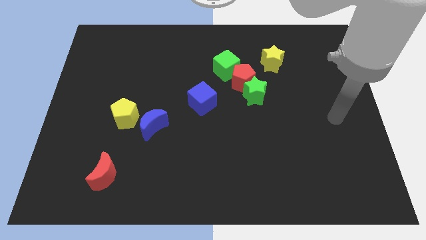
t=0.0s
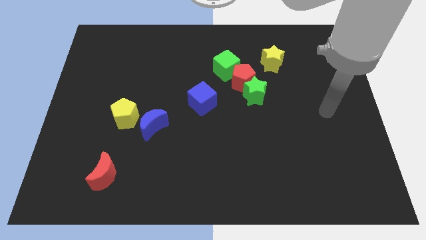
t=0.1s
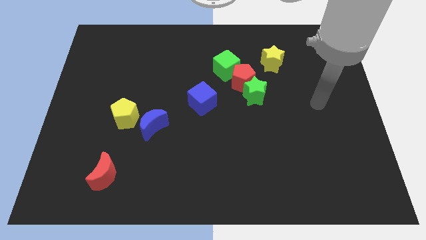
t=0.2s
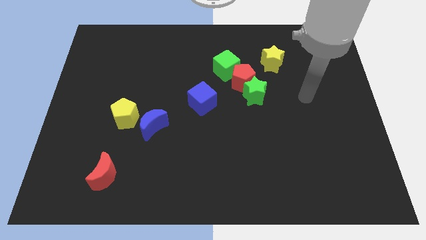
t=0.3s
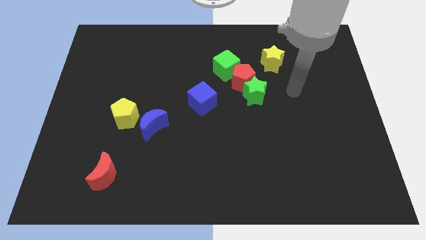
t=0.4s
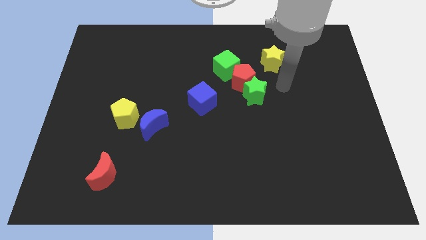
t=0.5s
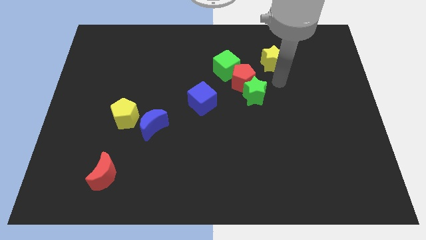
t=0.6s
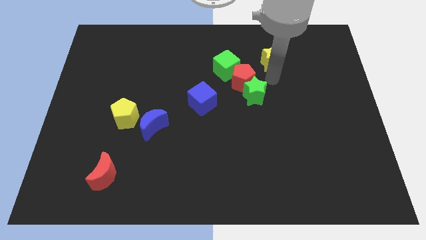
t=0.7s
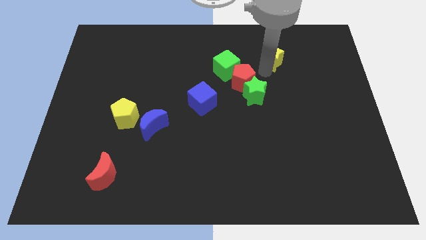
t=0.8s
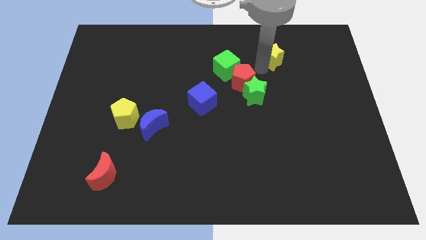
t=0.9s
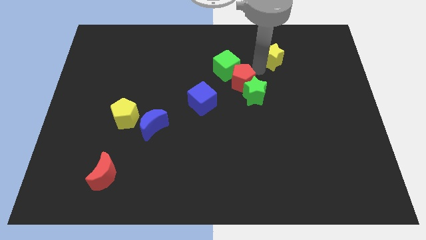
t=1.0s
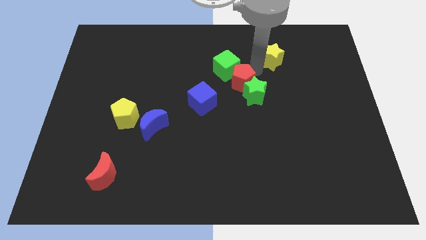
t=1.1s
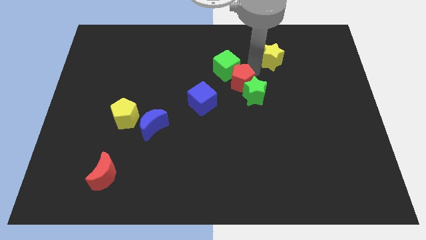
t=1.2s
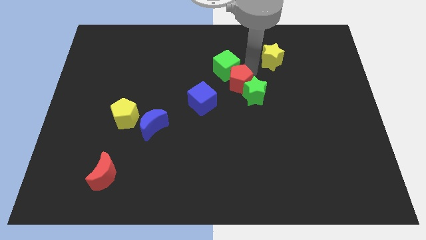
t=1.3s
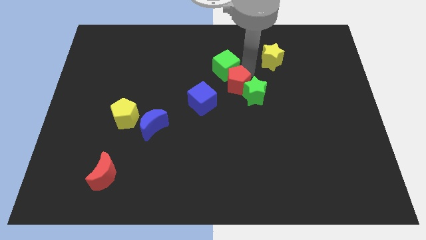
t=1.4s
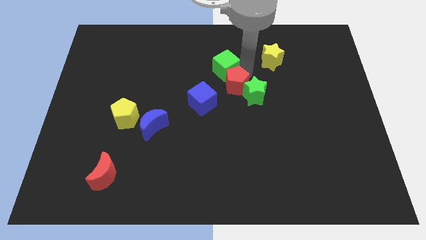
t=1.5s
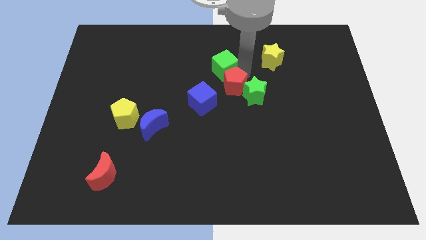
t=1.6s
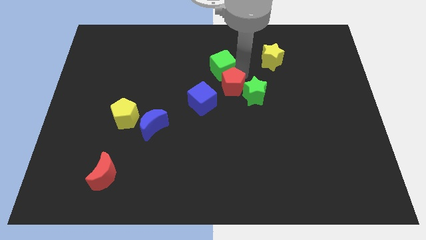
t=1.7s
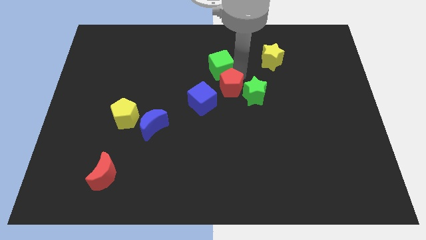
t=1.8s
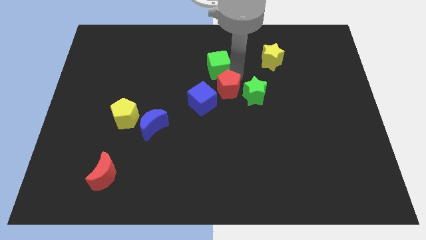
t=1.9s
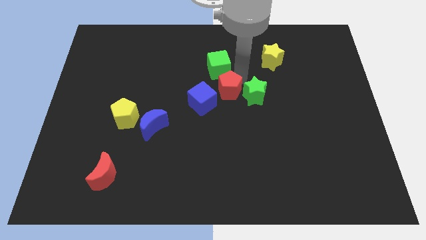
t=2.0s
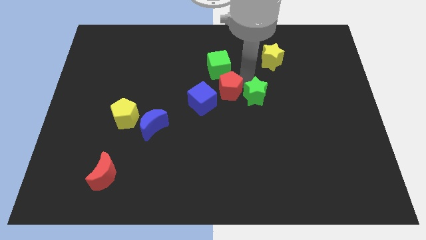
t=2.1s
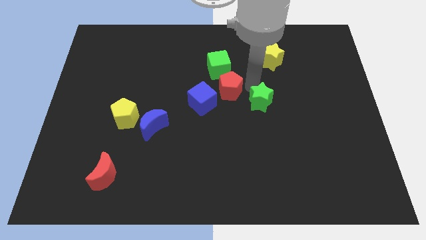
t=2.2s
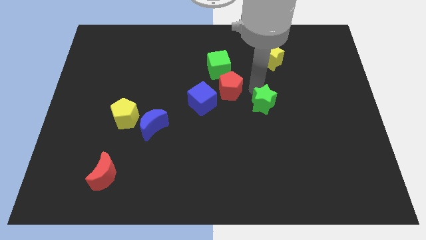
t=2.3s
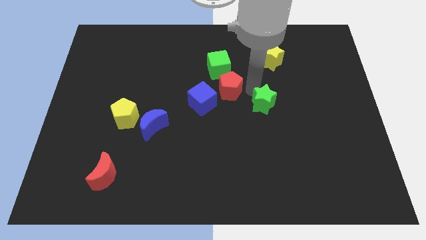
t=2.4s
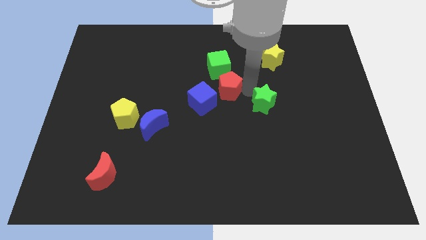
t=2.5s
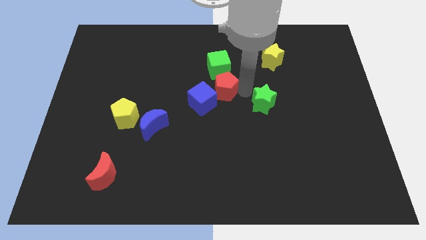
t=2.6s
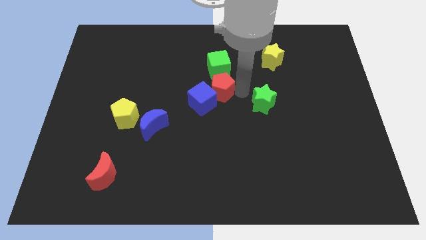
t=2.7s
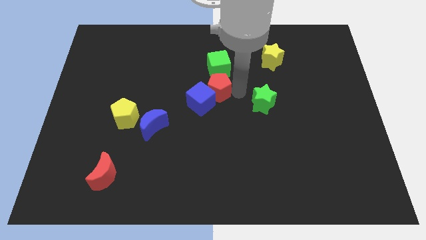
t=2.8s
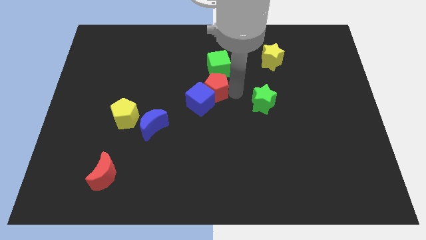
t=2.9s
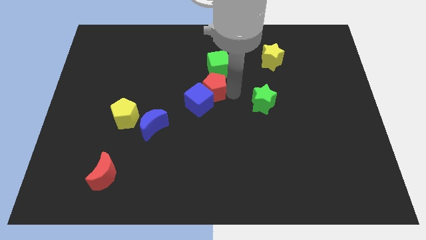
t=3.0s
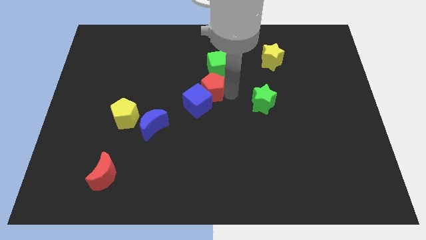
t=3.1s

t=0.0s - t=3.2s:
slide the red pentagon left a bit

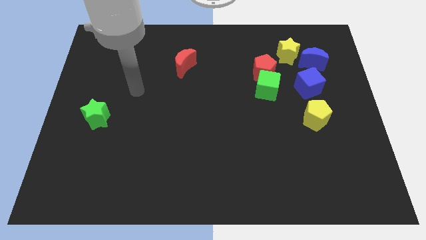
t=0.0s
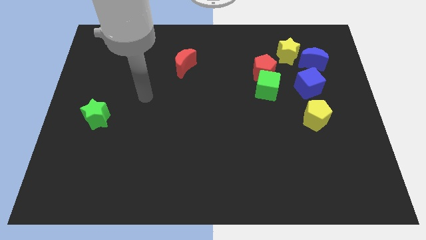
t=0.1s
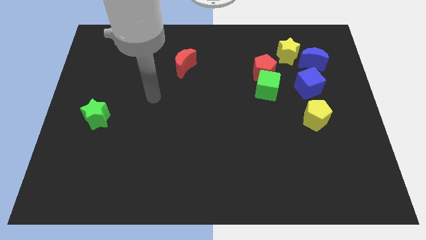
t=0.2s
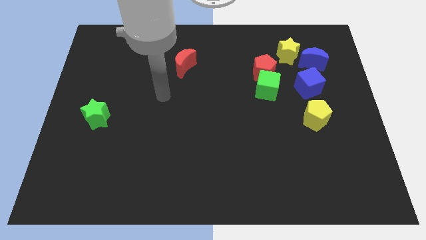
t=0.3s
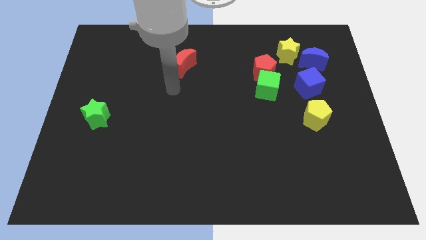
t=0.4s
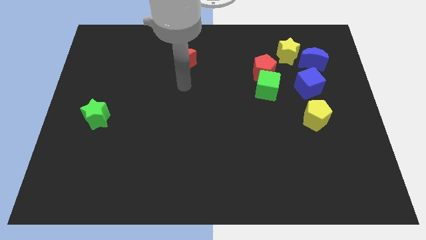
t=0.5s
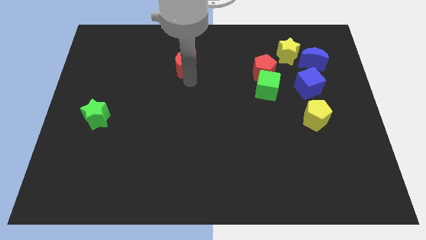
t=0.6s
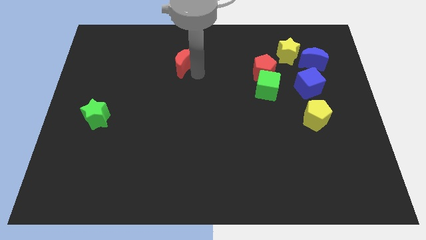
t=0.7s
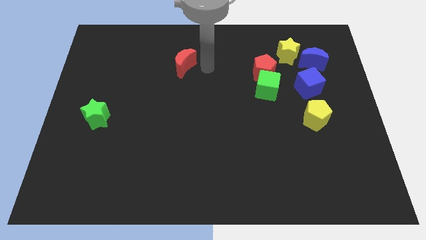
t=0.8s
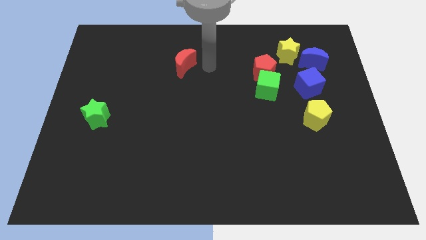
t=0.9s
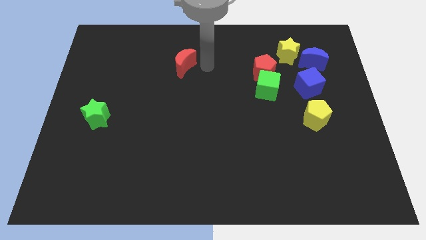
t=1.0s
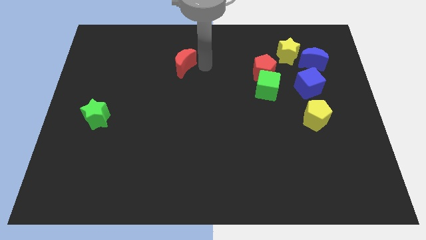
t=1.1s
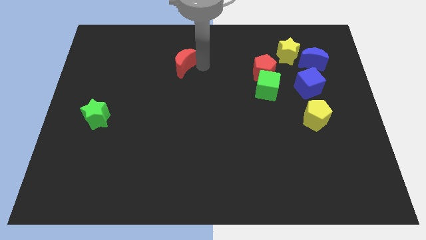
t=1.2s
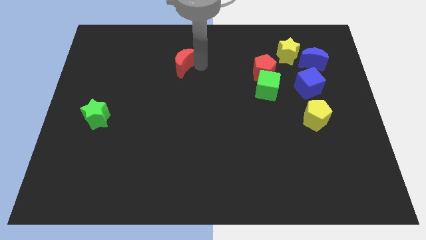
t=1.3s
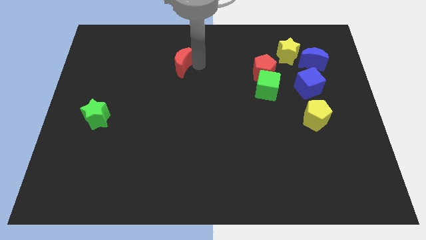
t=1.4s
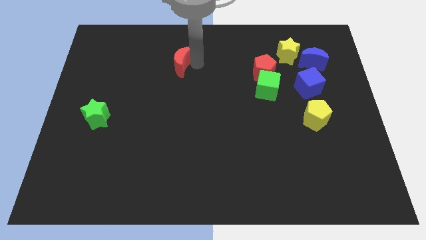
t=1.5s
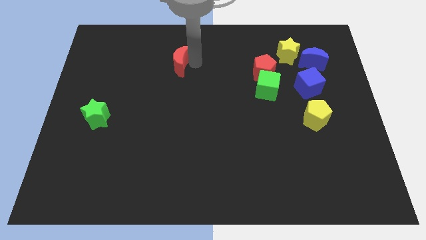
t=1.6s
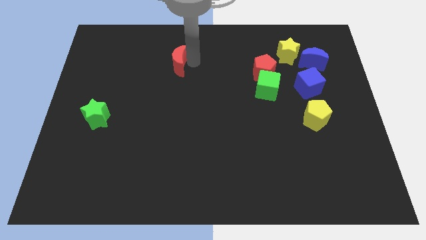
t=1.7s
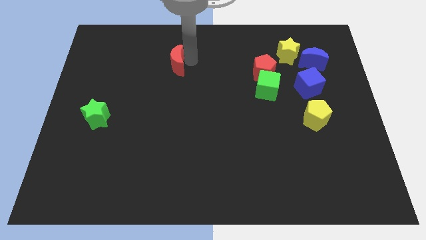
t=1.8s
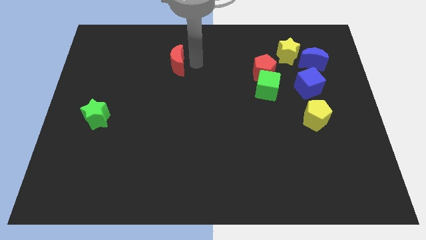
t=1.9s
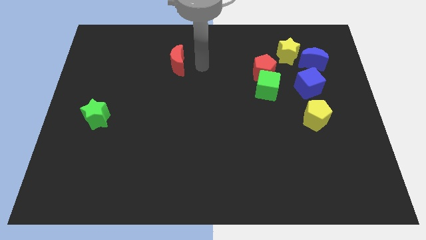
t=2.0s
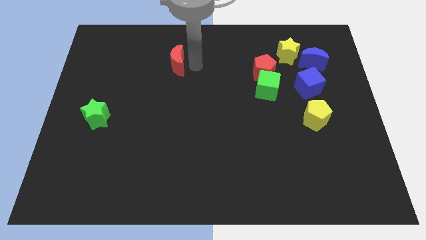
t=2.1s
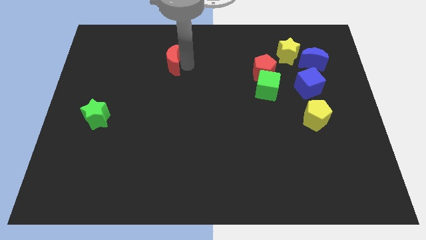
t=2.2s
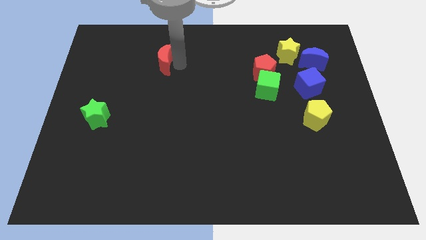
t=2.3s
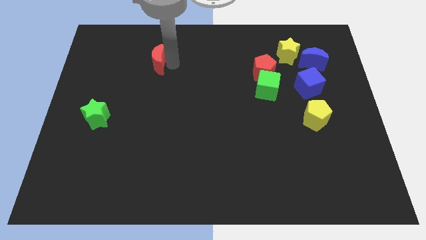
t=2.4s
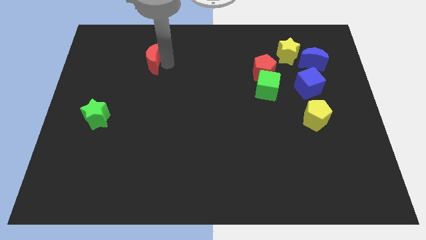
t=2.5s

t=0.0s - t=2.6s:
push the red moon to the left slightly

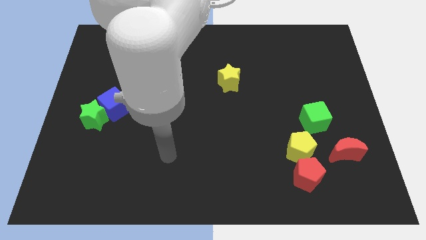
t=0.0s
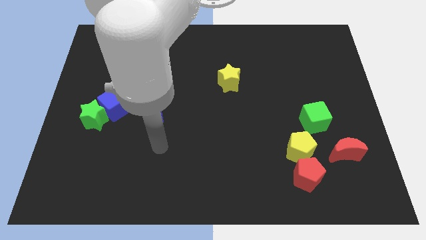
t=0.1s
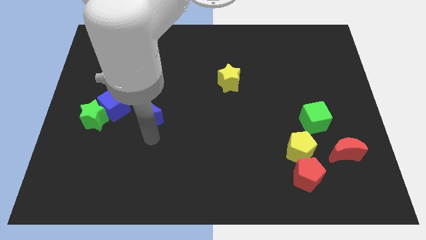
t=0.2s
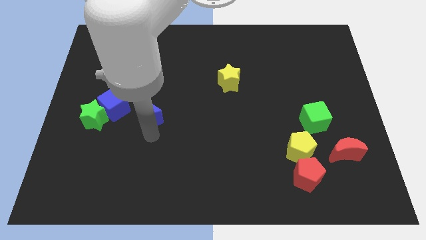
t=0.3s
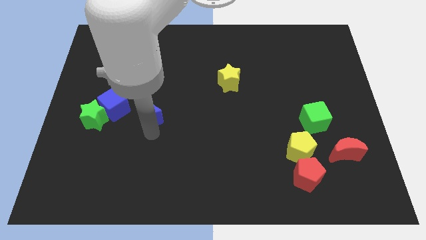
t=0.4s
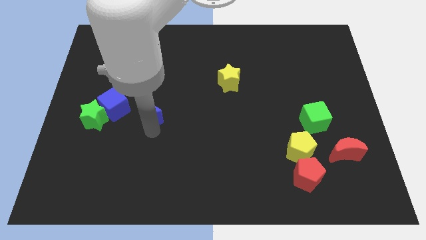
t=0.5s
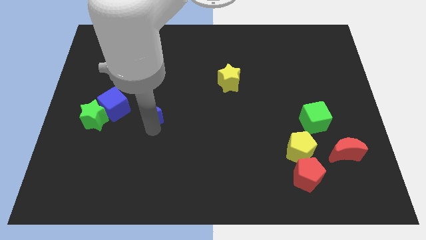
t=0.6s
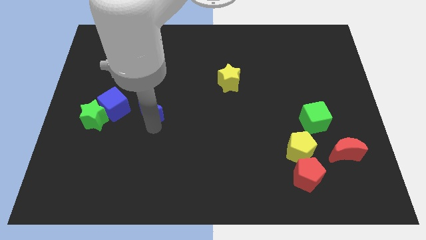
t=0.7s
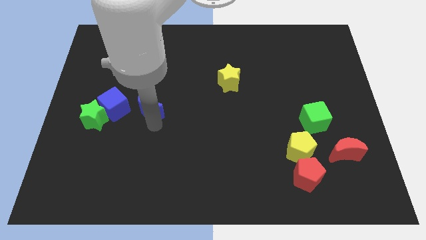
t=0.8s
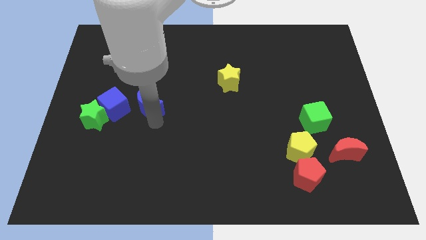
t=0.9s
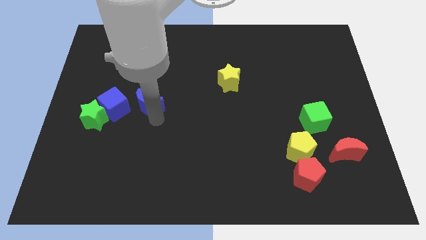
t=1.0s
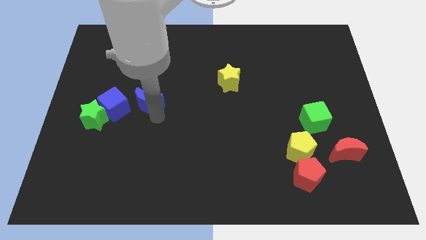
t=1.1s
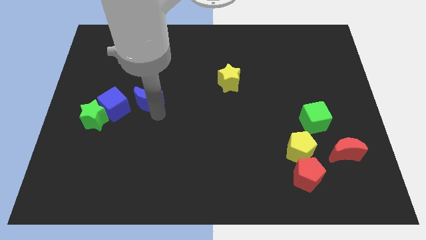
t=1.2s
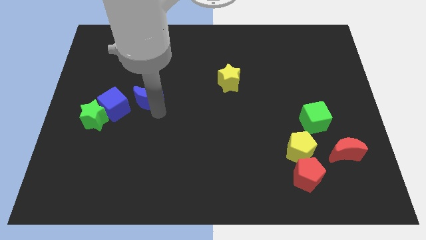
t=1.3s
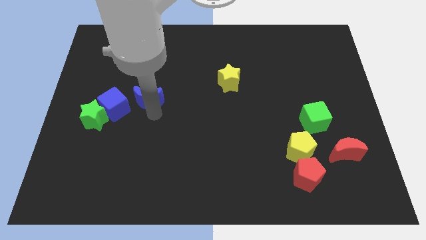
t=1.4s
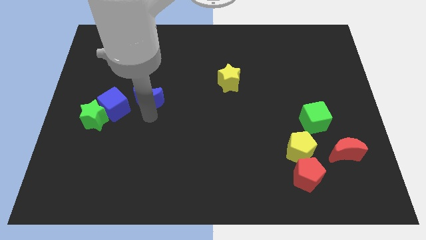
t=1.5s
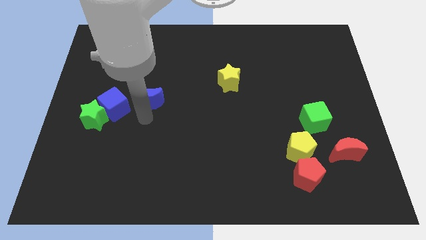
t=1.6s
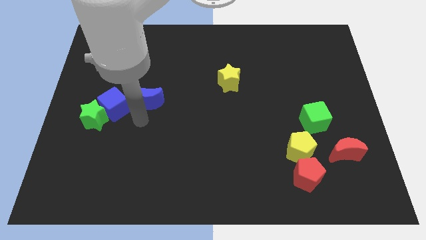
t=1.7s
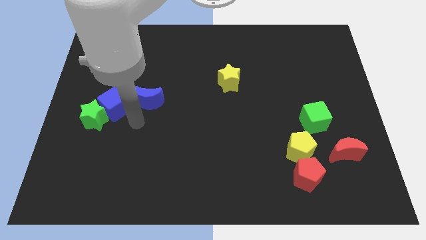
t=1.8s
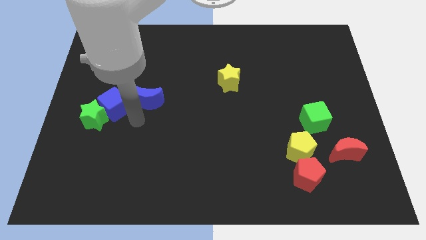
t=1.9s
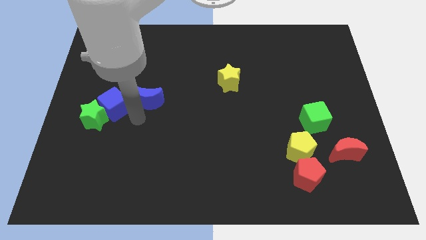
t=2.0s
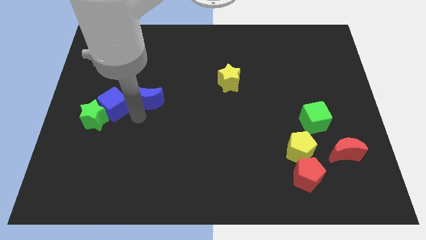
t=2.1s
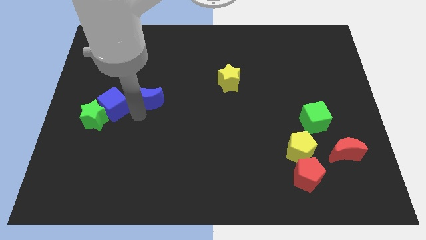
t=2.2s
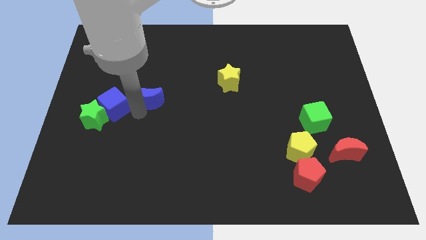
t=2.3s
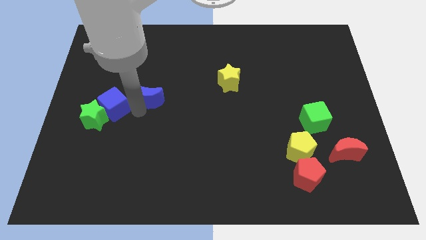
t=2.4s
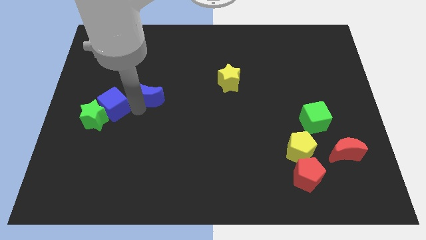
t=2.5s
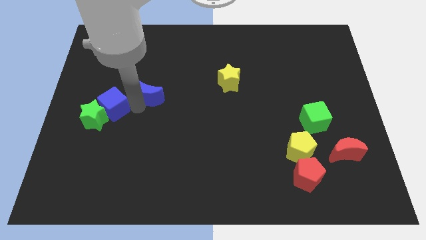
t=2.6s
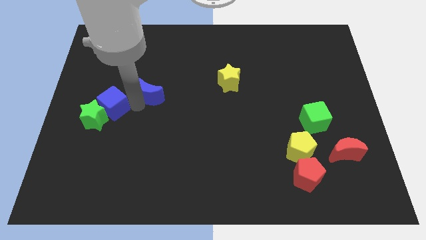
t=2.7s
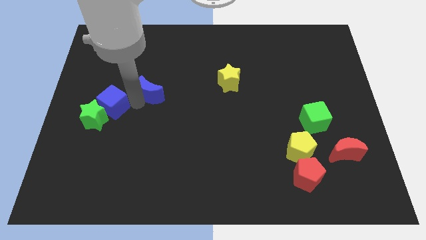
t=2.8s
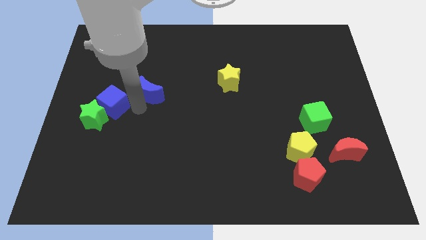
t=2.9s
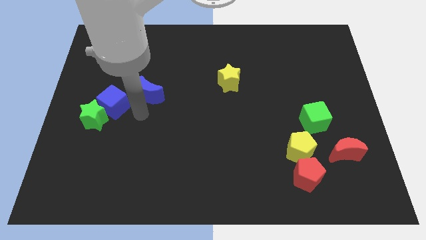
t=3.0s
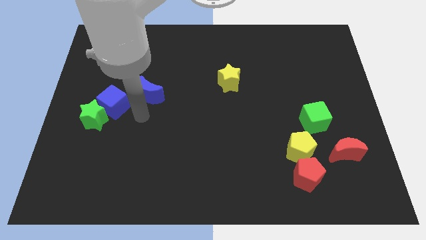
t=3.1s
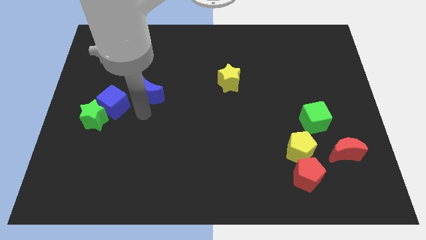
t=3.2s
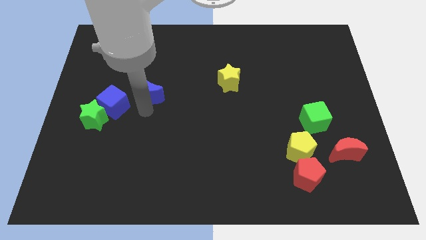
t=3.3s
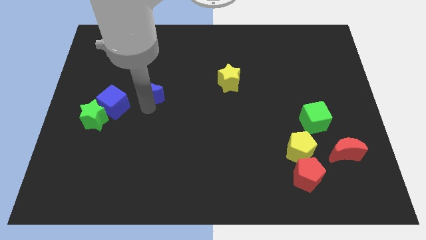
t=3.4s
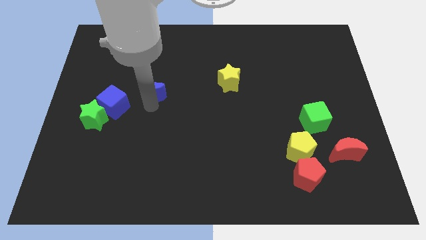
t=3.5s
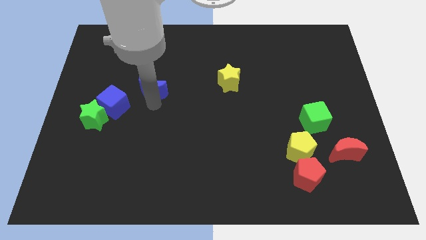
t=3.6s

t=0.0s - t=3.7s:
push the blue moon a bit upwards
